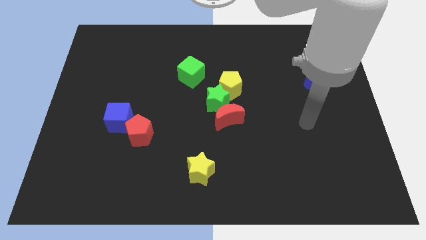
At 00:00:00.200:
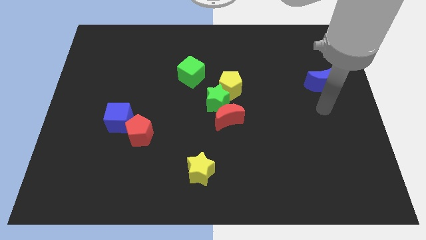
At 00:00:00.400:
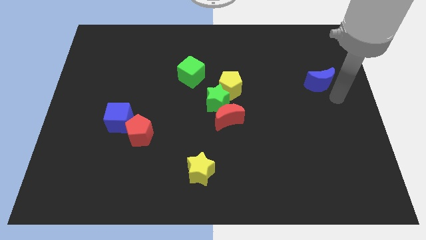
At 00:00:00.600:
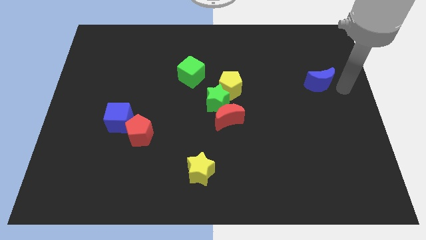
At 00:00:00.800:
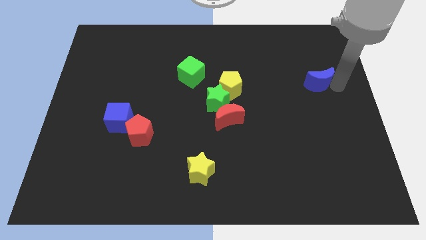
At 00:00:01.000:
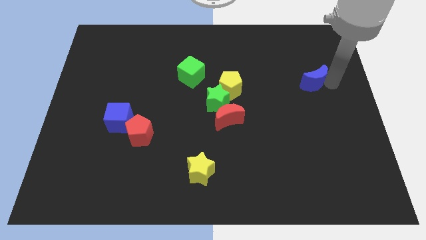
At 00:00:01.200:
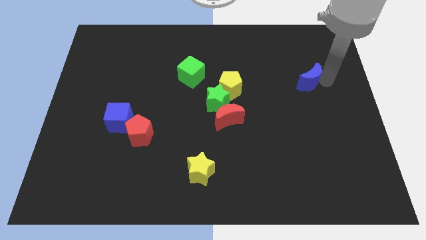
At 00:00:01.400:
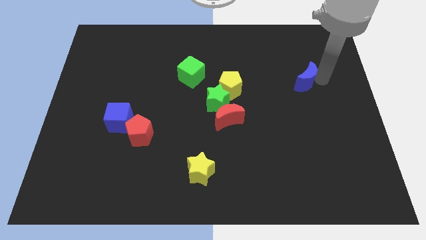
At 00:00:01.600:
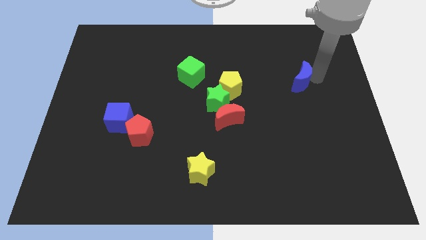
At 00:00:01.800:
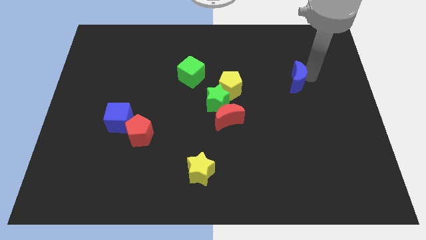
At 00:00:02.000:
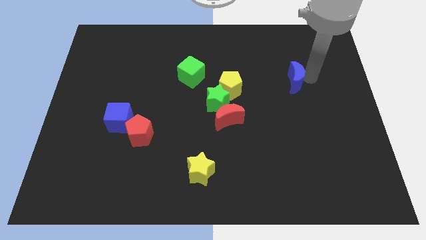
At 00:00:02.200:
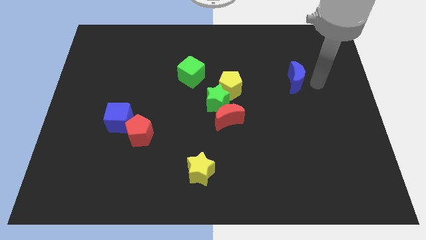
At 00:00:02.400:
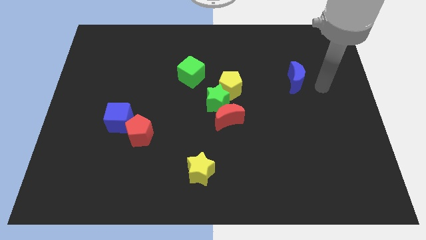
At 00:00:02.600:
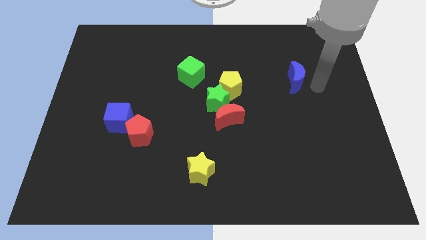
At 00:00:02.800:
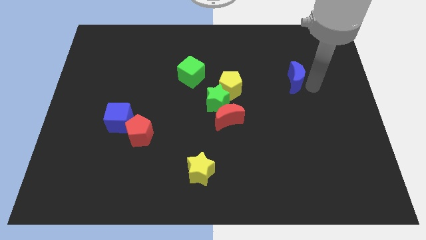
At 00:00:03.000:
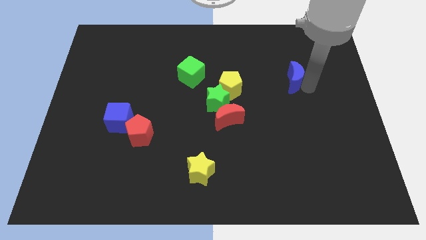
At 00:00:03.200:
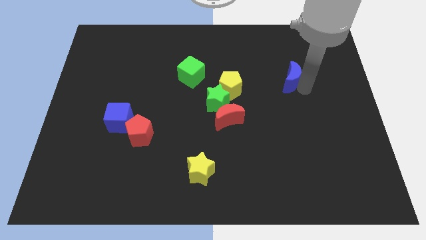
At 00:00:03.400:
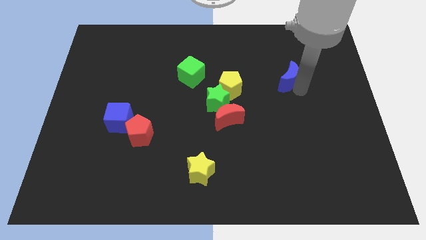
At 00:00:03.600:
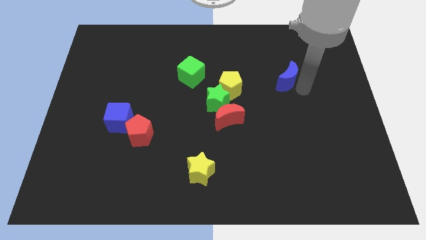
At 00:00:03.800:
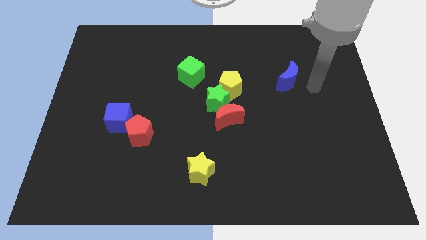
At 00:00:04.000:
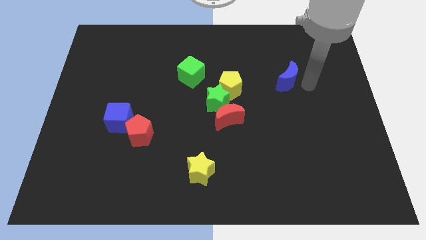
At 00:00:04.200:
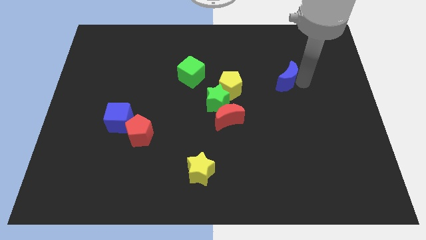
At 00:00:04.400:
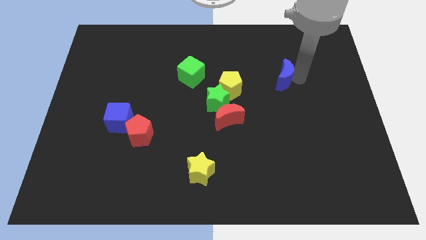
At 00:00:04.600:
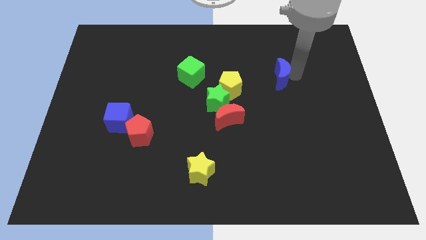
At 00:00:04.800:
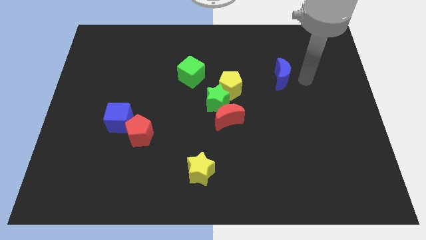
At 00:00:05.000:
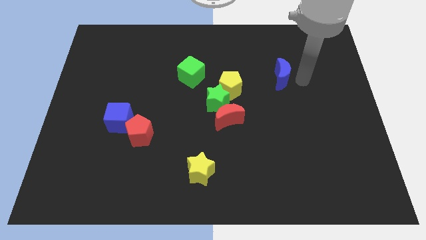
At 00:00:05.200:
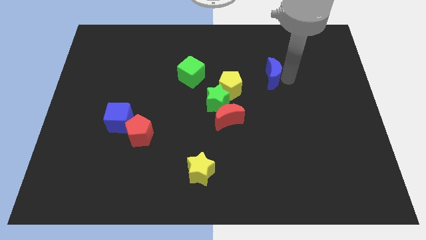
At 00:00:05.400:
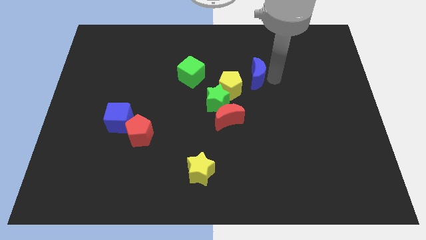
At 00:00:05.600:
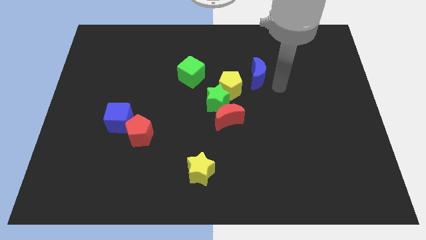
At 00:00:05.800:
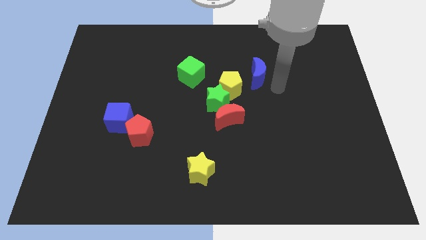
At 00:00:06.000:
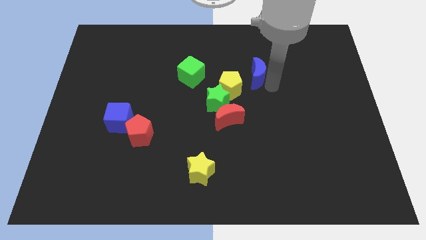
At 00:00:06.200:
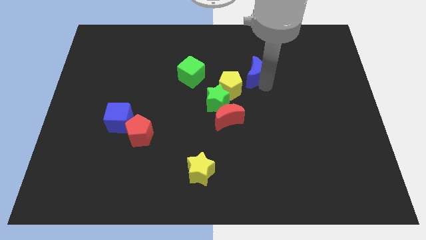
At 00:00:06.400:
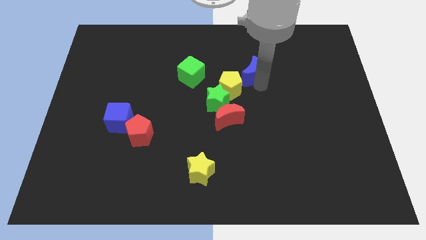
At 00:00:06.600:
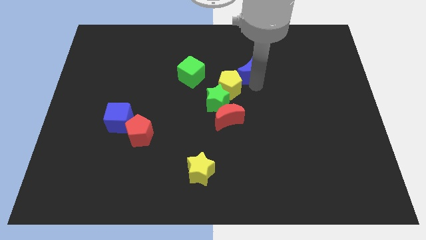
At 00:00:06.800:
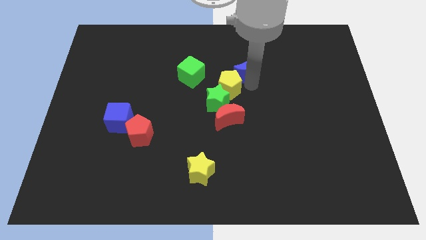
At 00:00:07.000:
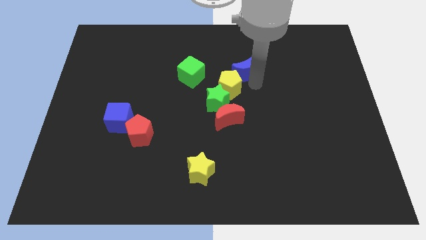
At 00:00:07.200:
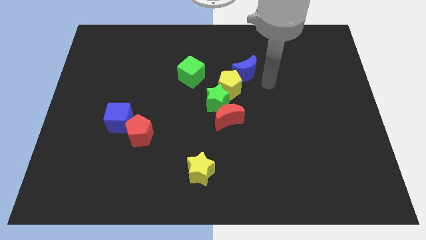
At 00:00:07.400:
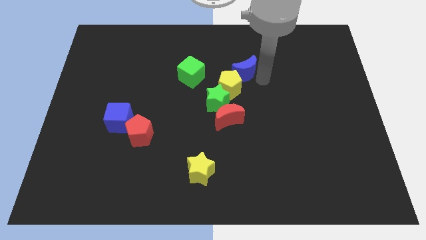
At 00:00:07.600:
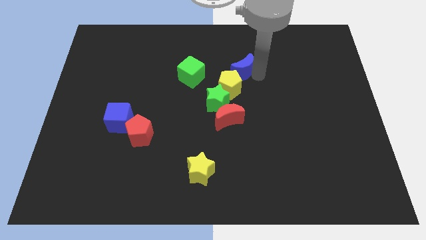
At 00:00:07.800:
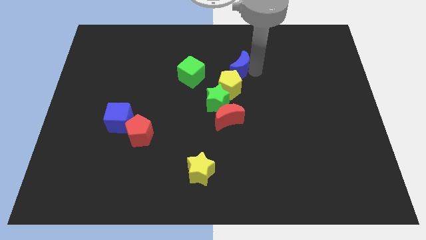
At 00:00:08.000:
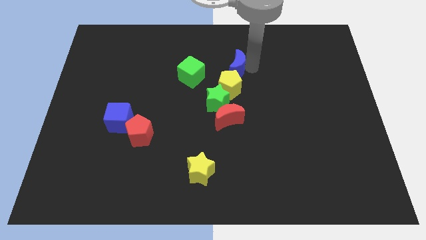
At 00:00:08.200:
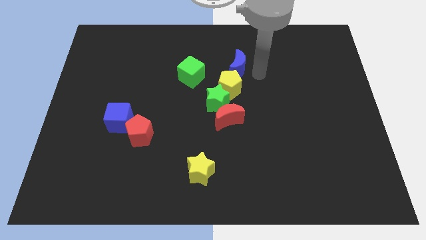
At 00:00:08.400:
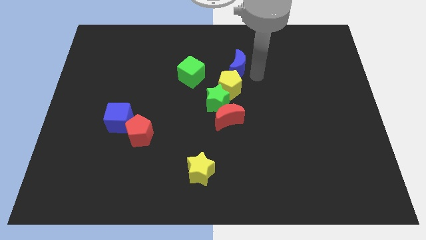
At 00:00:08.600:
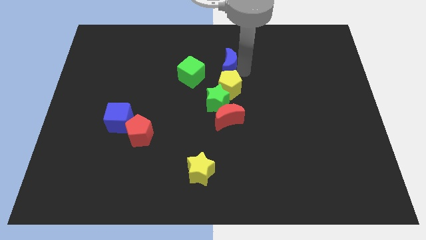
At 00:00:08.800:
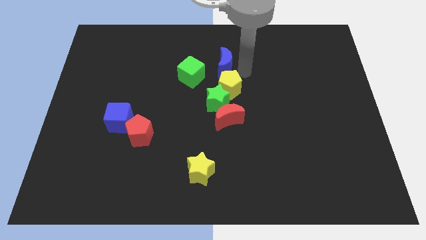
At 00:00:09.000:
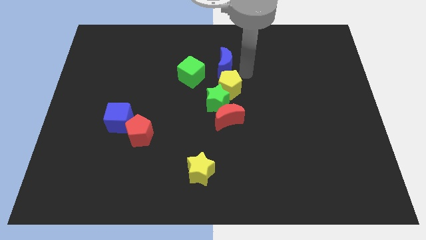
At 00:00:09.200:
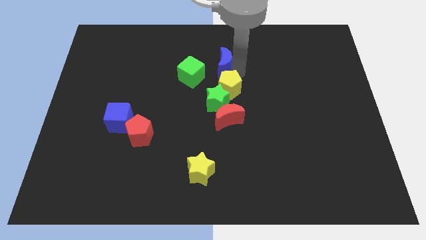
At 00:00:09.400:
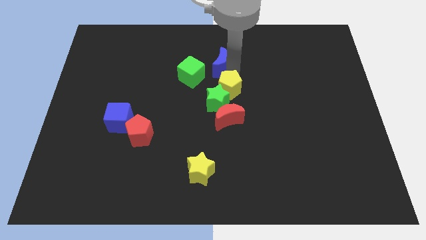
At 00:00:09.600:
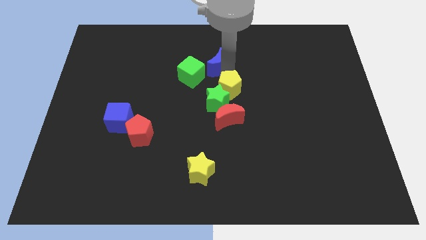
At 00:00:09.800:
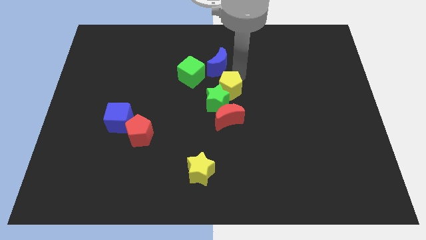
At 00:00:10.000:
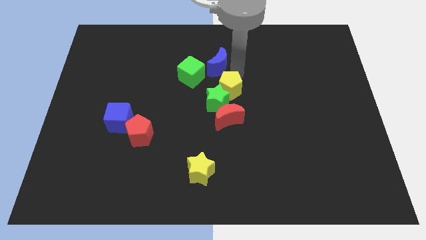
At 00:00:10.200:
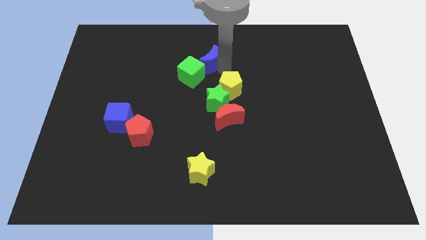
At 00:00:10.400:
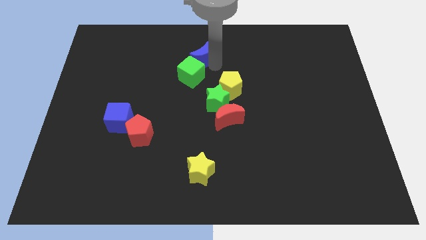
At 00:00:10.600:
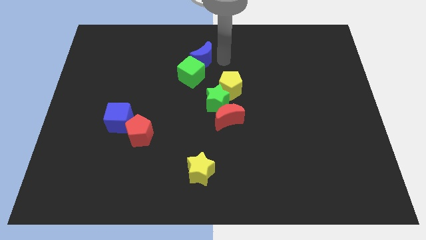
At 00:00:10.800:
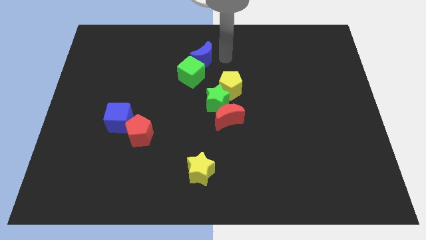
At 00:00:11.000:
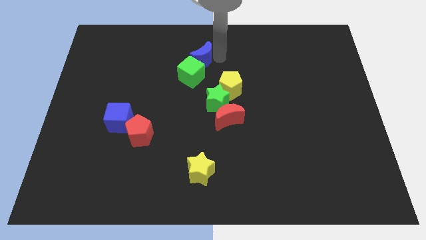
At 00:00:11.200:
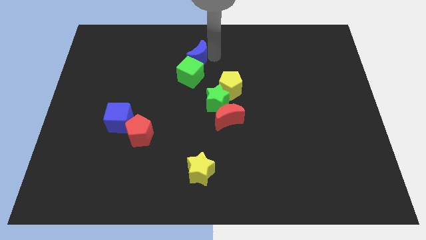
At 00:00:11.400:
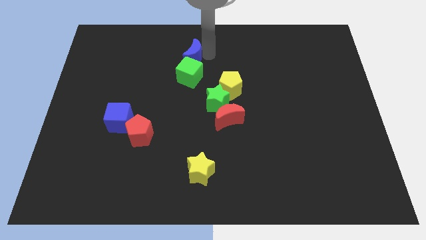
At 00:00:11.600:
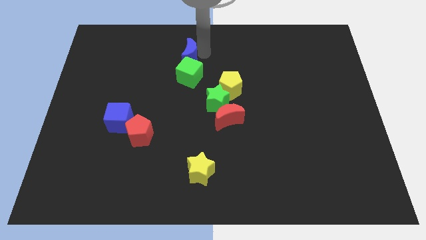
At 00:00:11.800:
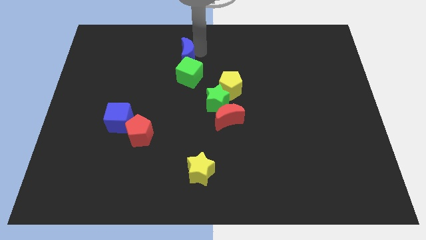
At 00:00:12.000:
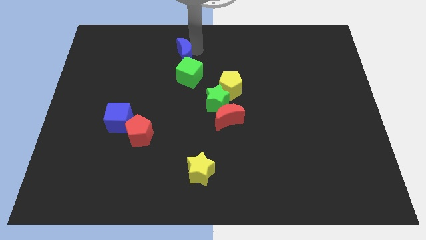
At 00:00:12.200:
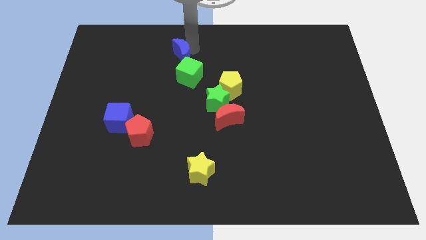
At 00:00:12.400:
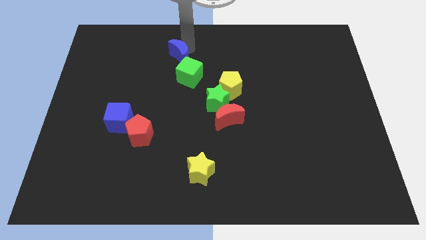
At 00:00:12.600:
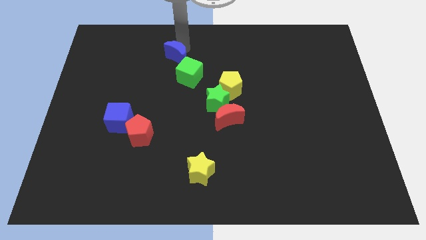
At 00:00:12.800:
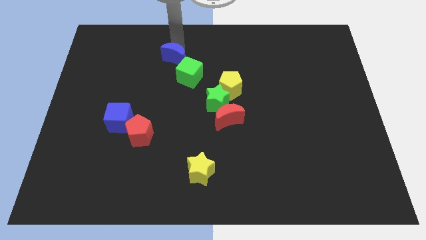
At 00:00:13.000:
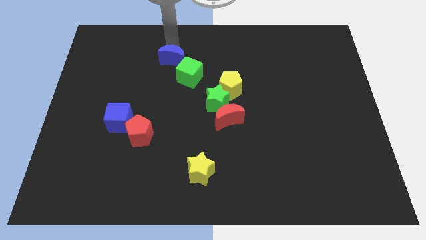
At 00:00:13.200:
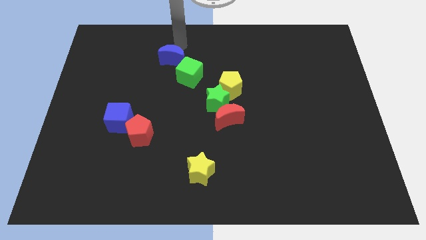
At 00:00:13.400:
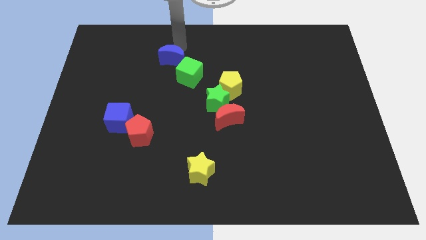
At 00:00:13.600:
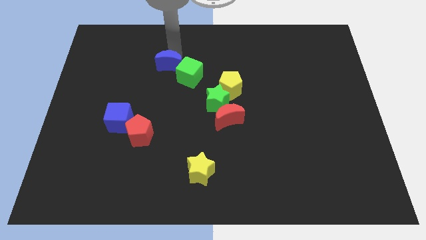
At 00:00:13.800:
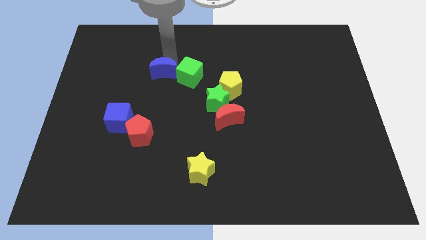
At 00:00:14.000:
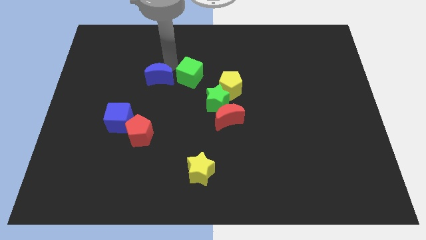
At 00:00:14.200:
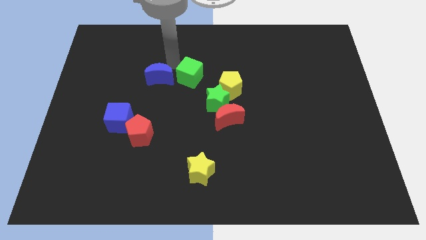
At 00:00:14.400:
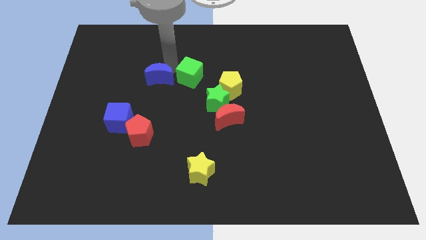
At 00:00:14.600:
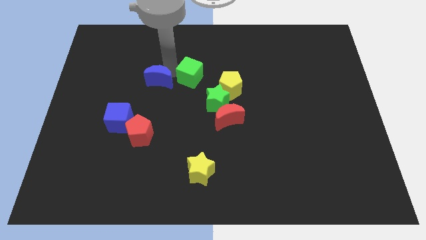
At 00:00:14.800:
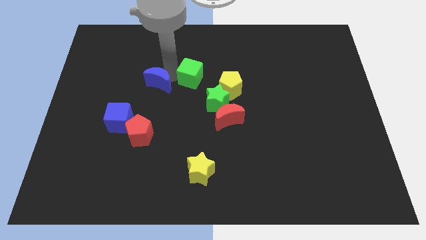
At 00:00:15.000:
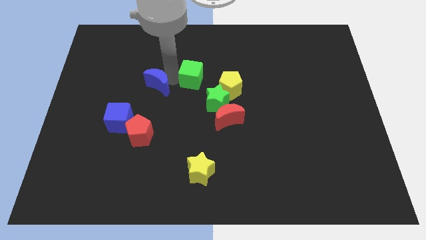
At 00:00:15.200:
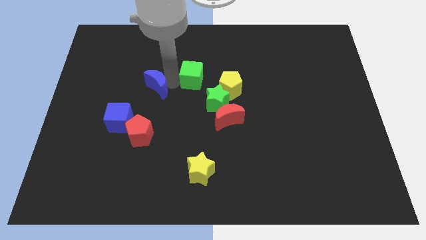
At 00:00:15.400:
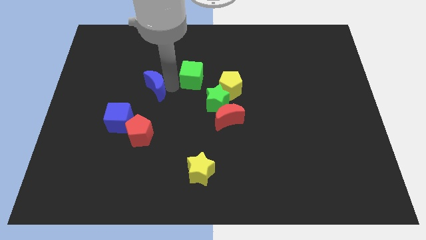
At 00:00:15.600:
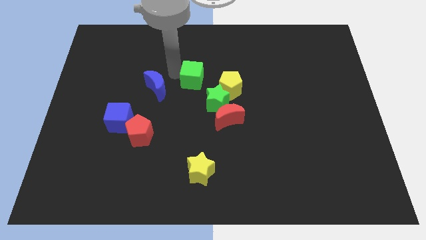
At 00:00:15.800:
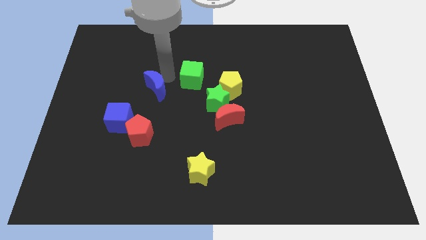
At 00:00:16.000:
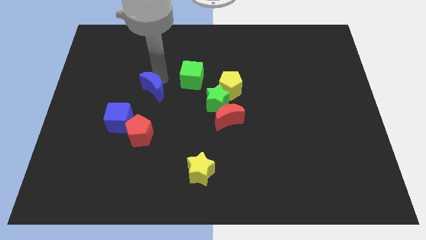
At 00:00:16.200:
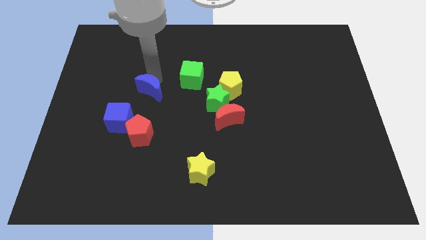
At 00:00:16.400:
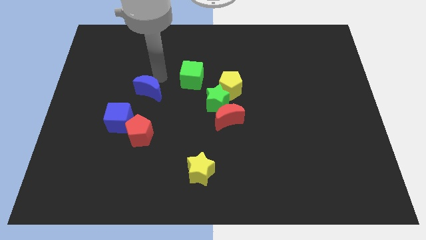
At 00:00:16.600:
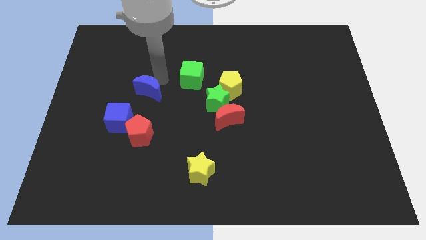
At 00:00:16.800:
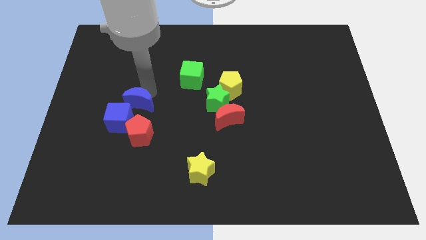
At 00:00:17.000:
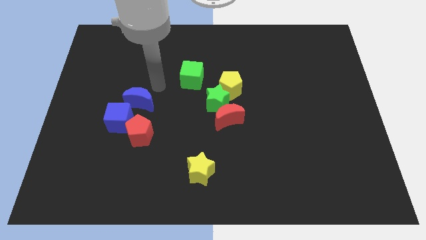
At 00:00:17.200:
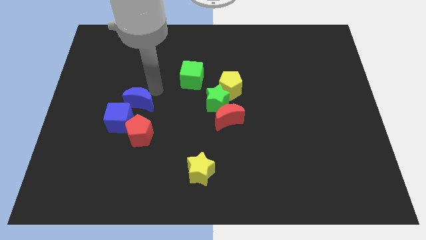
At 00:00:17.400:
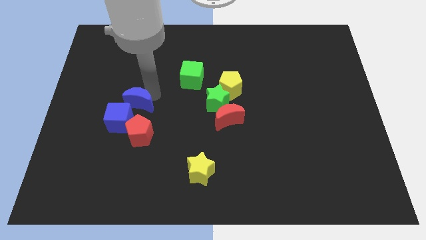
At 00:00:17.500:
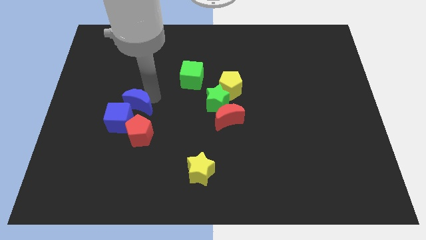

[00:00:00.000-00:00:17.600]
slide the blue moon towards the blue cube
